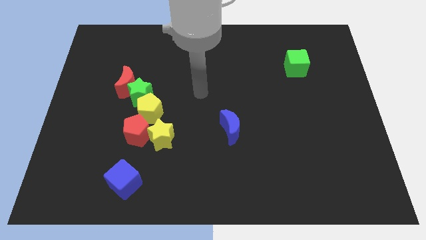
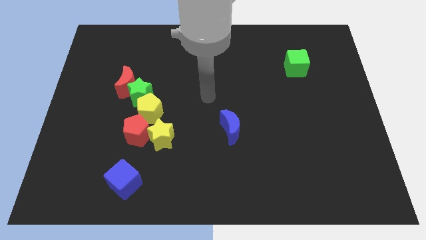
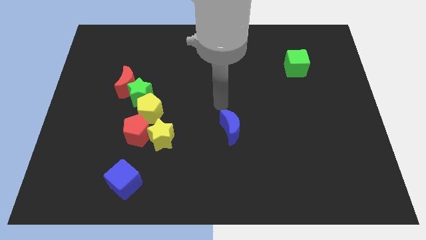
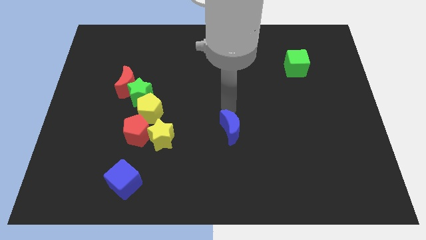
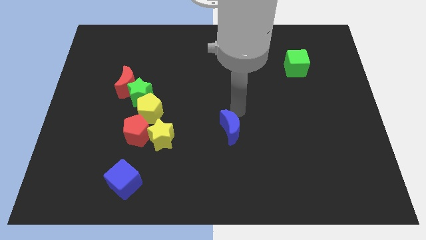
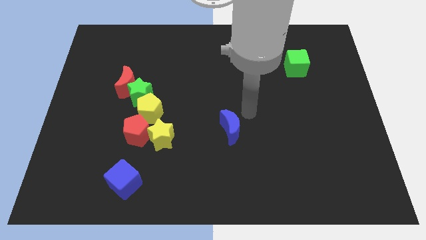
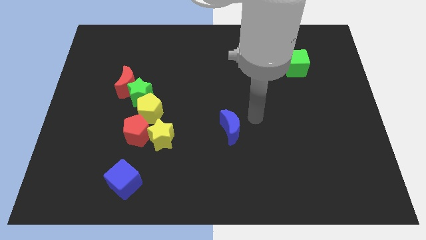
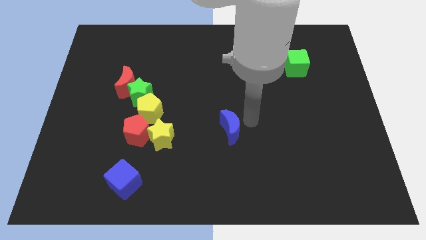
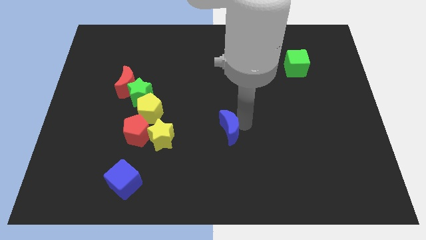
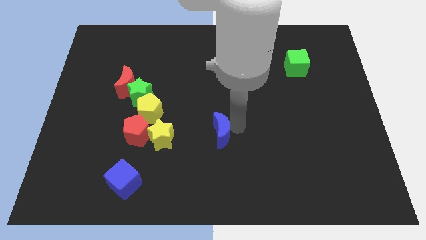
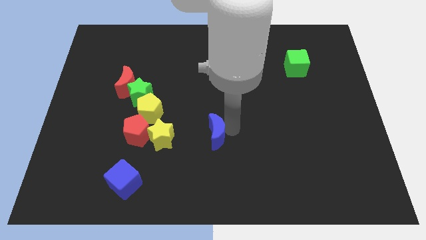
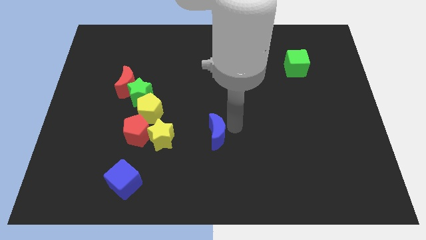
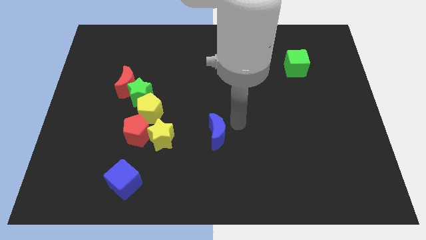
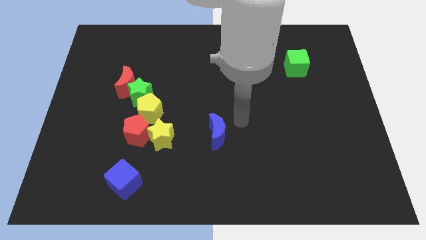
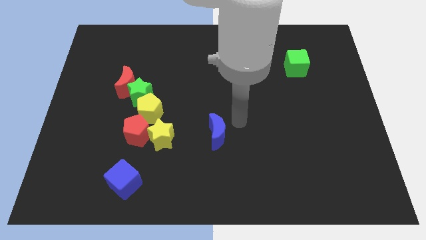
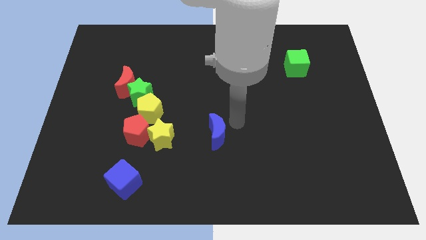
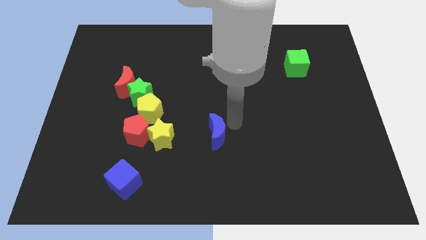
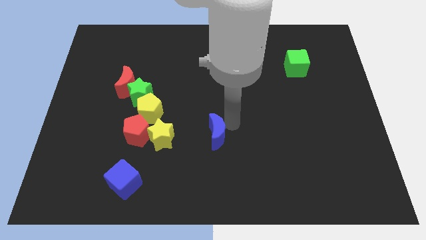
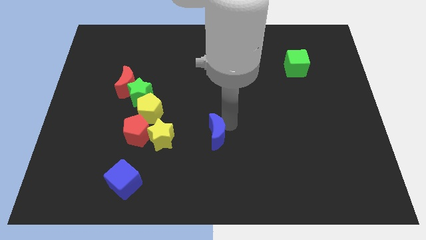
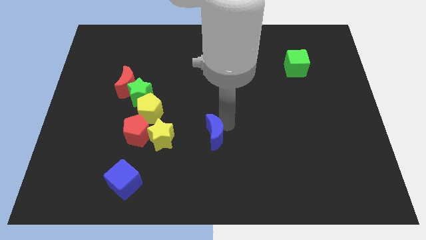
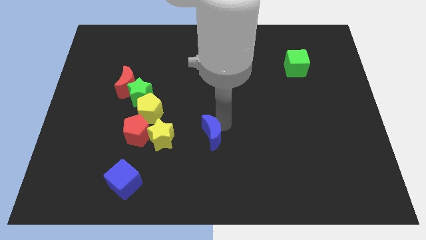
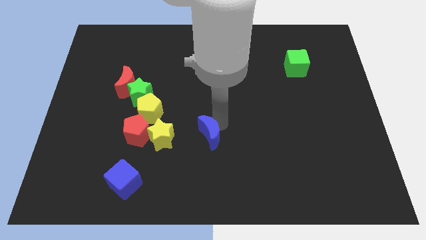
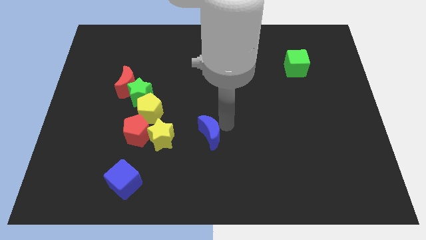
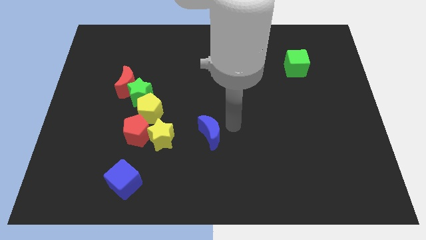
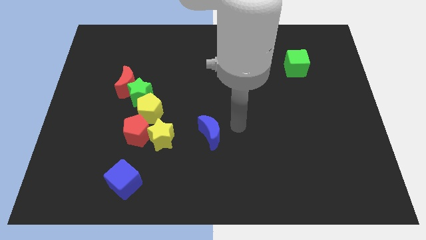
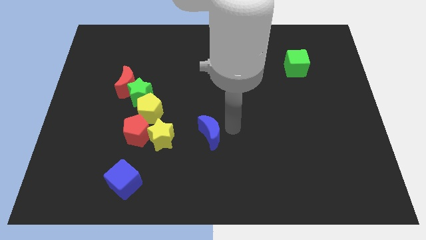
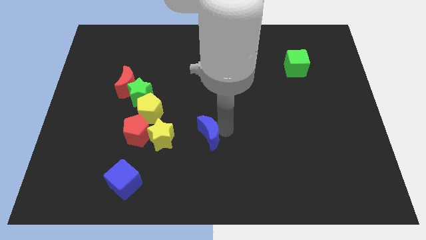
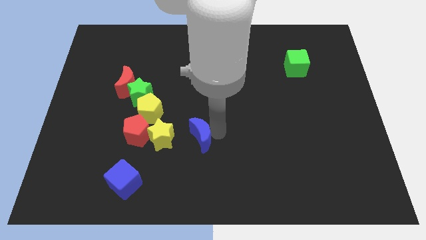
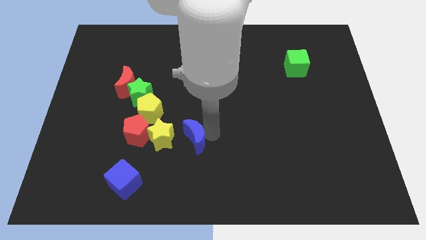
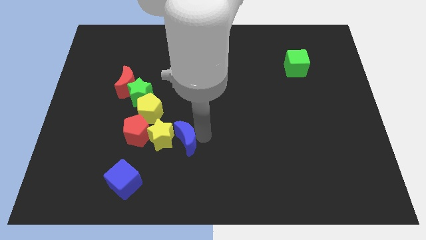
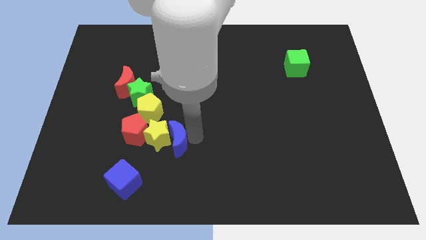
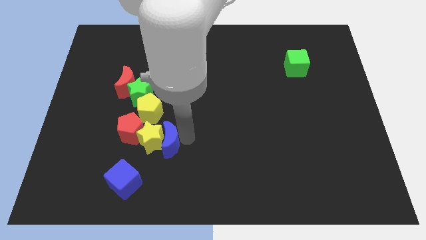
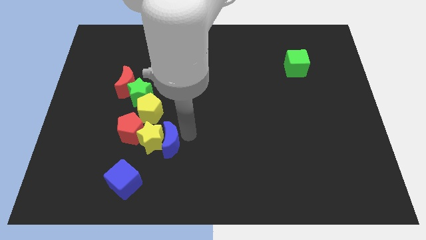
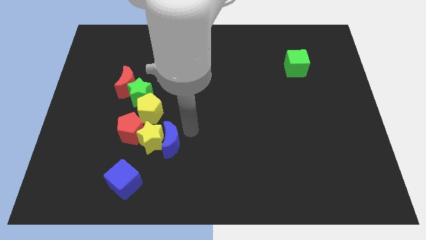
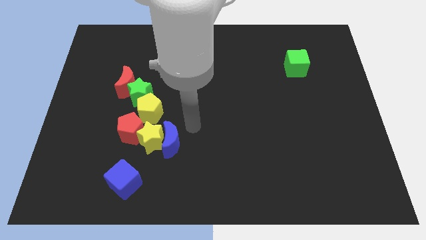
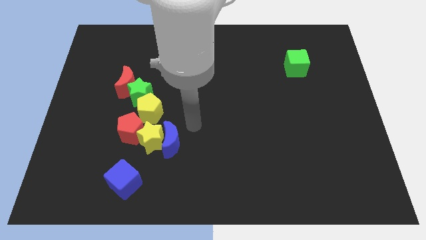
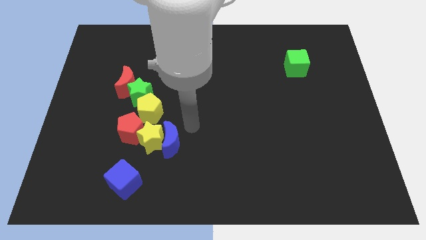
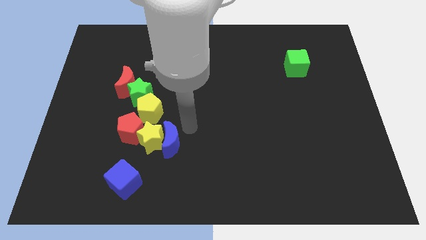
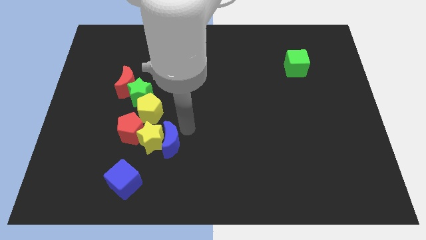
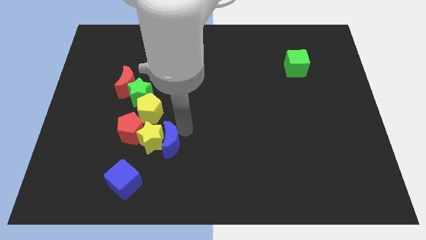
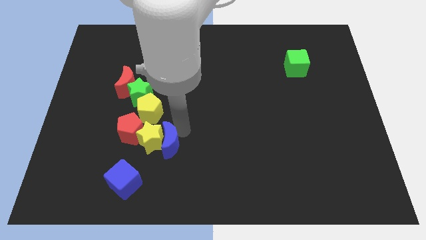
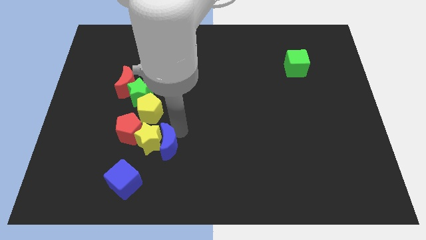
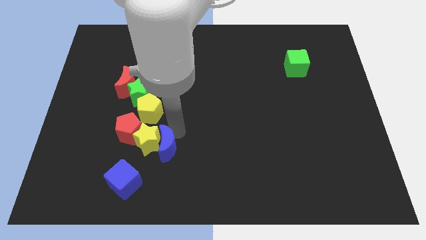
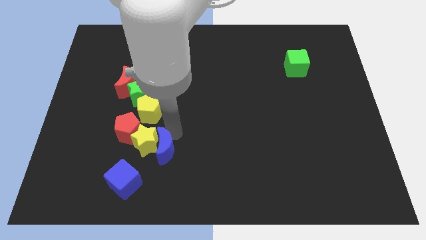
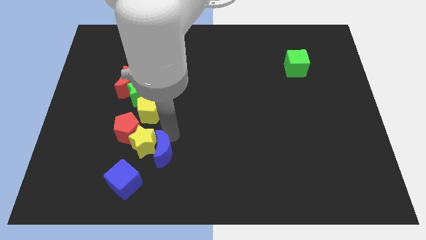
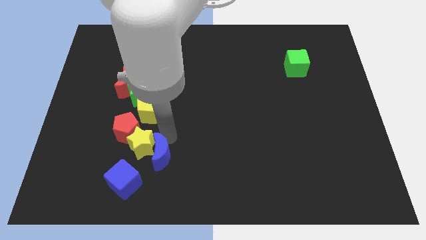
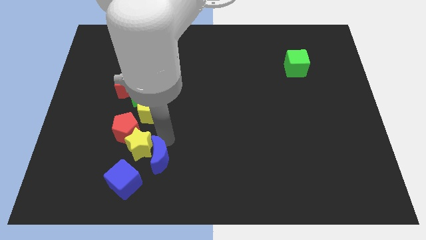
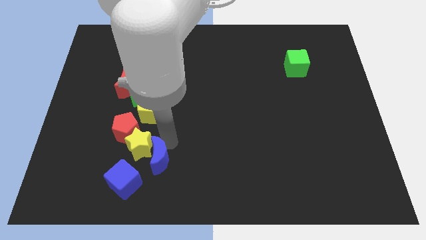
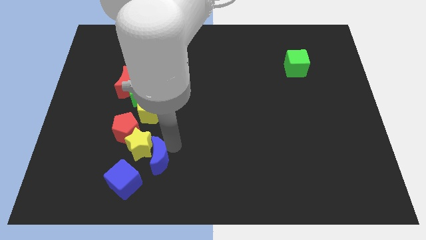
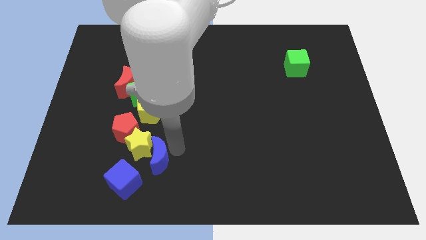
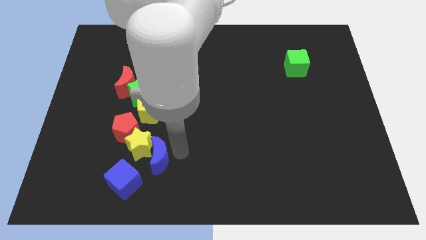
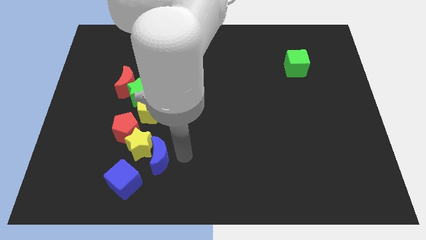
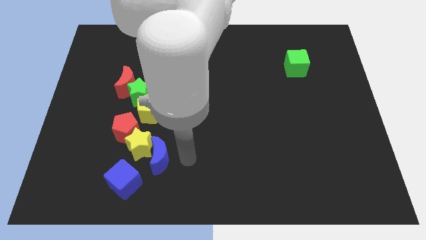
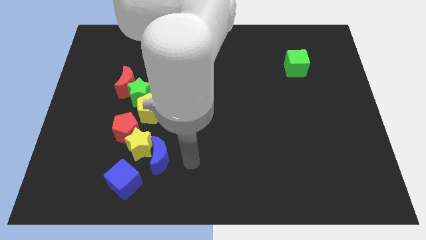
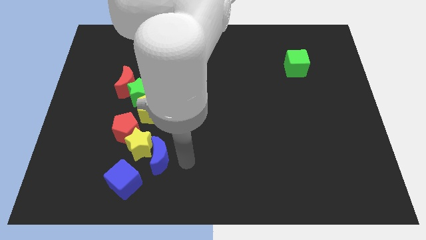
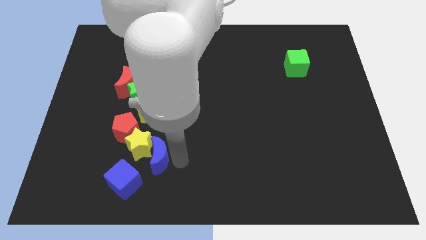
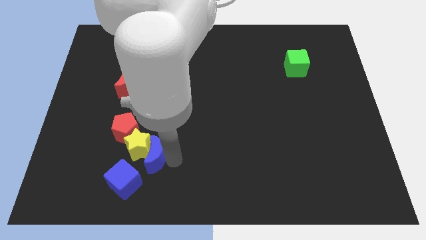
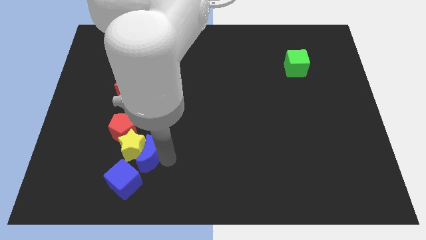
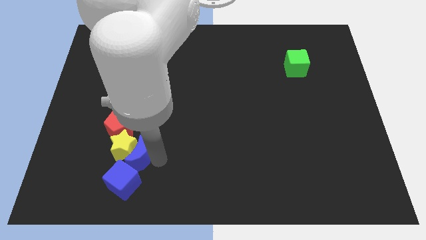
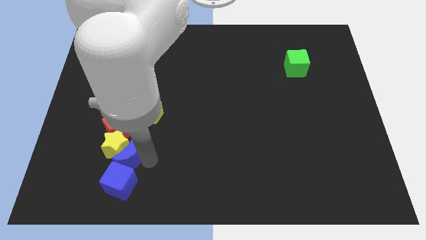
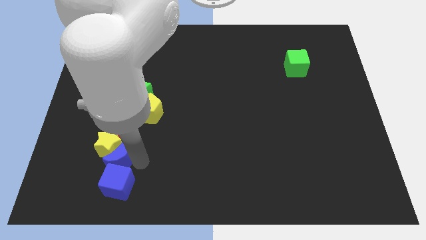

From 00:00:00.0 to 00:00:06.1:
move the blue moon left

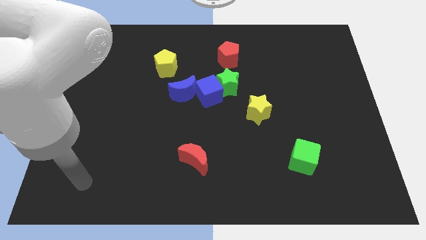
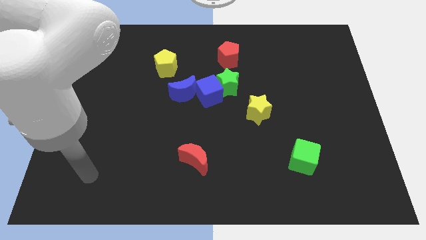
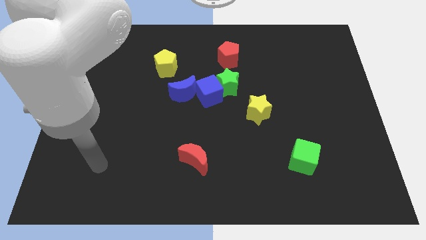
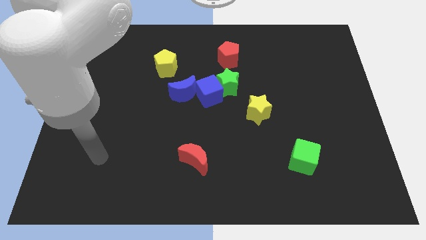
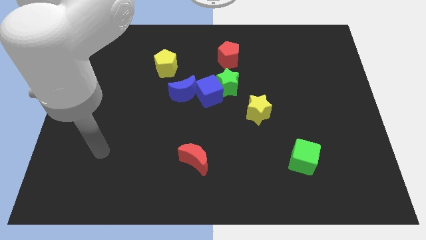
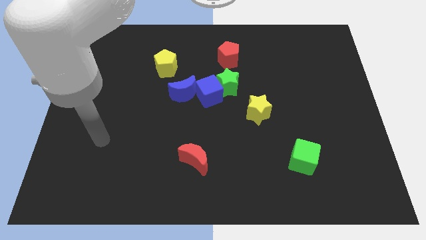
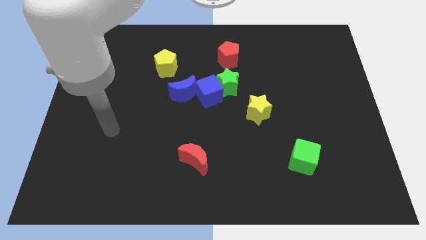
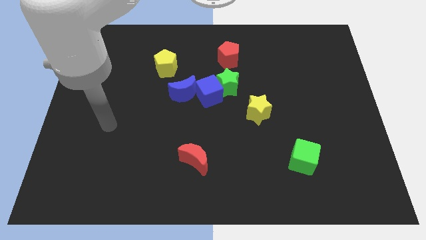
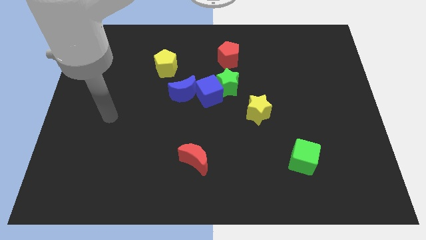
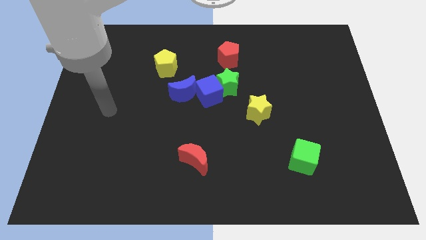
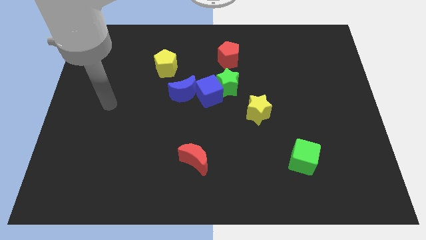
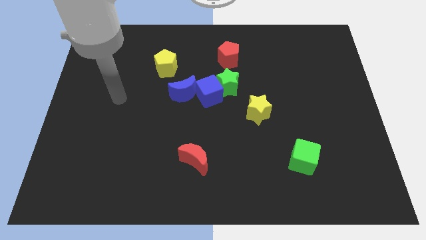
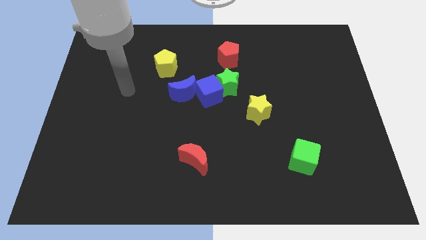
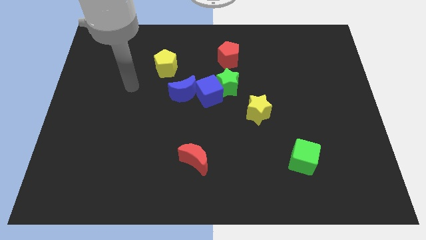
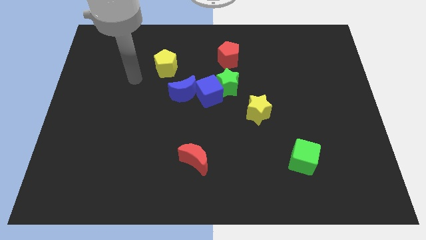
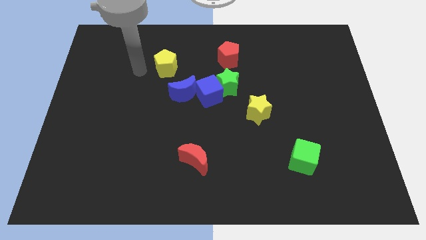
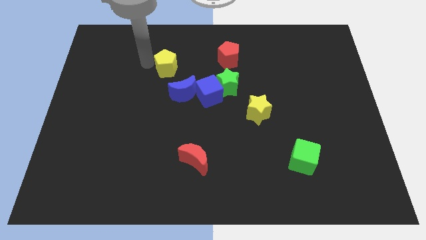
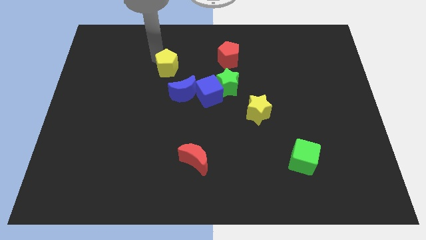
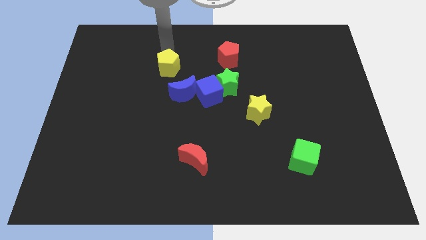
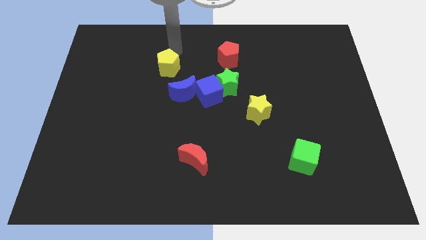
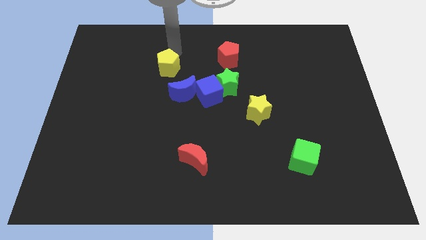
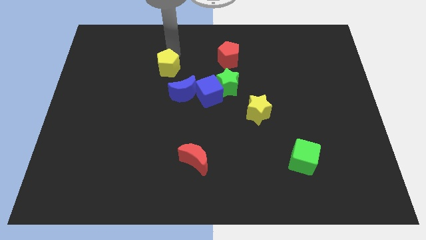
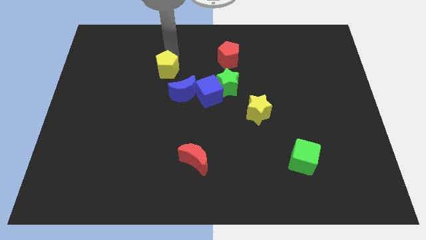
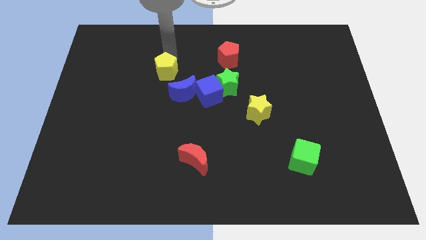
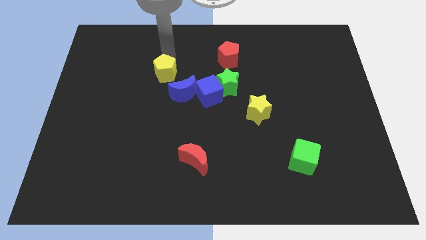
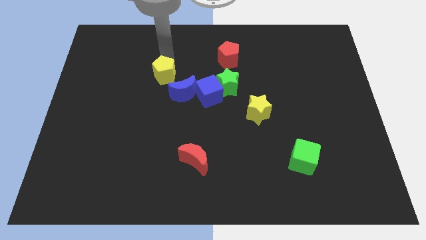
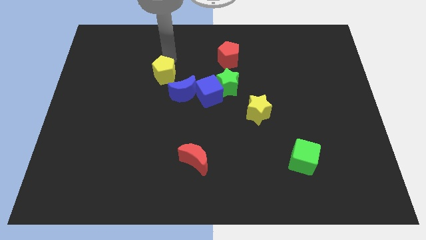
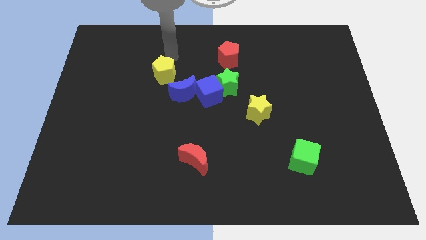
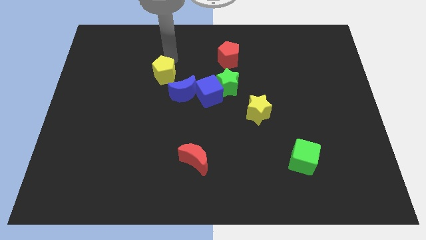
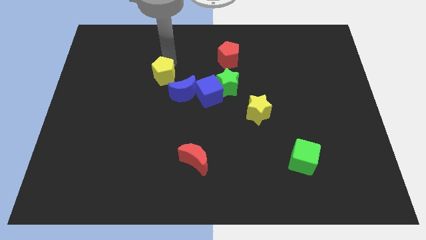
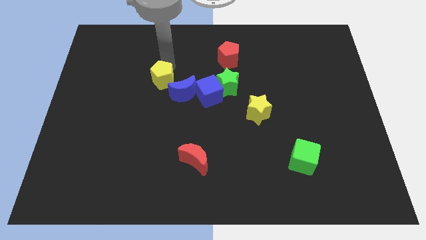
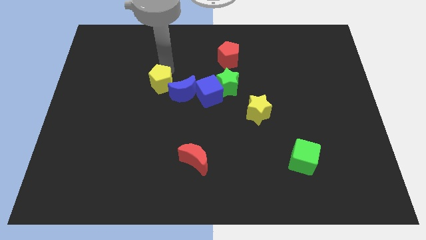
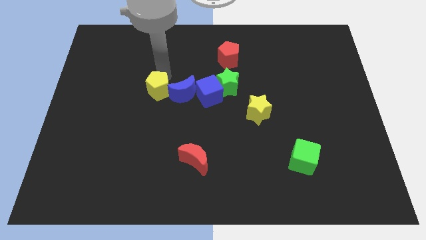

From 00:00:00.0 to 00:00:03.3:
slightly slide the yellow pentagon down
